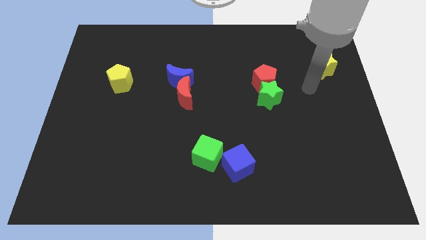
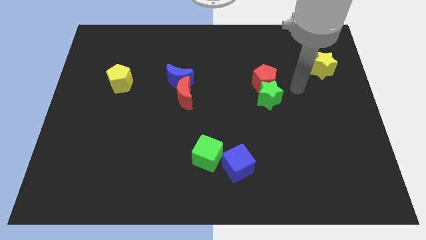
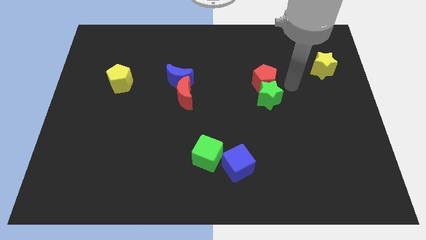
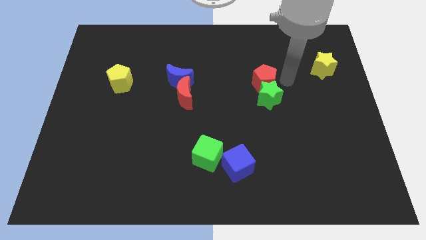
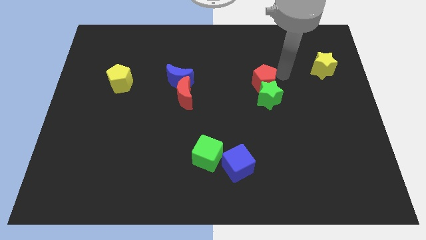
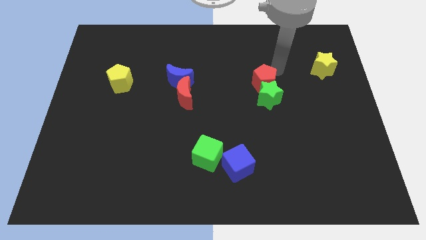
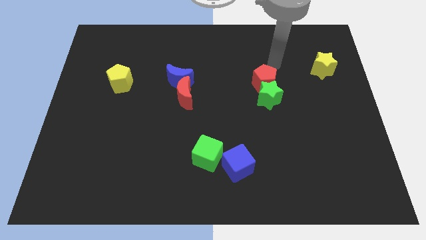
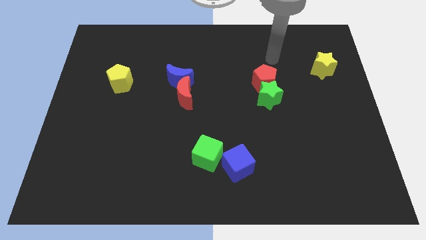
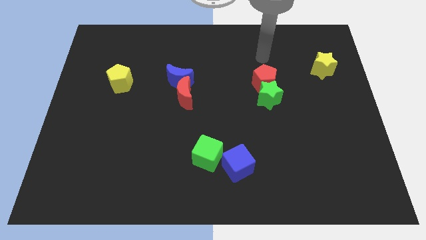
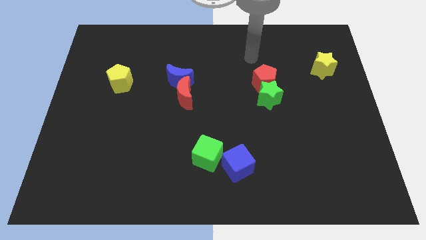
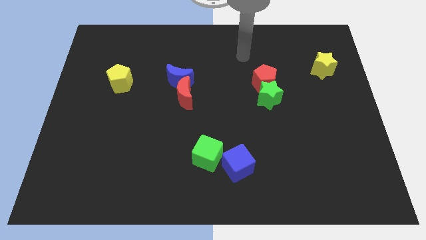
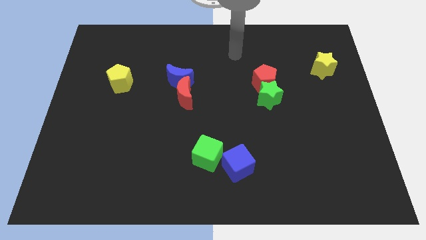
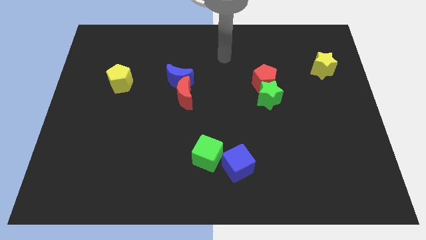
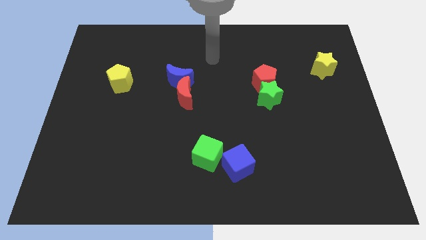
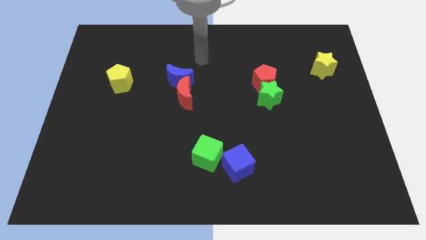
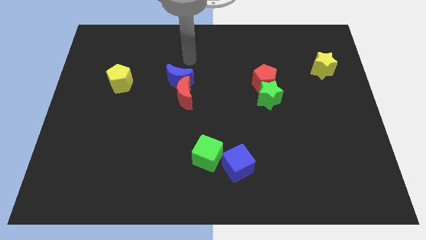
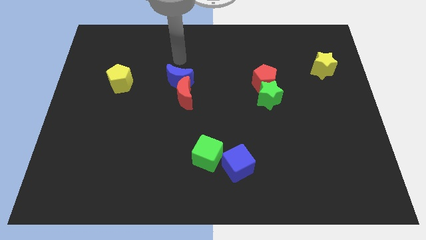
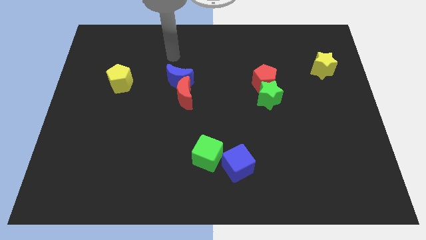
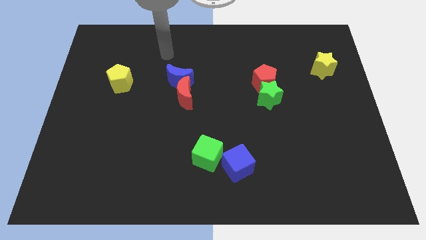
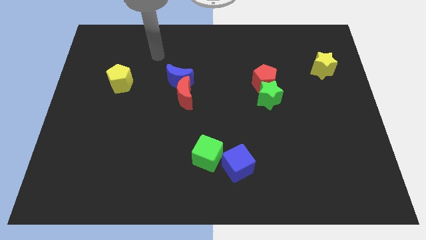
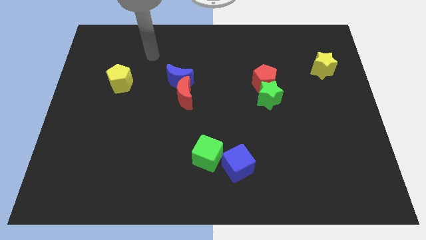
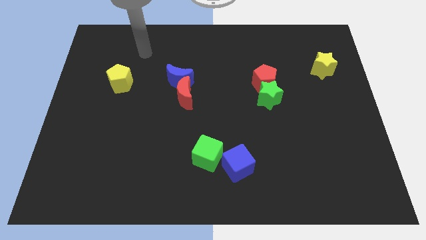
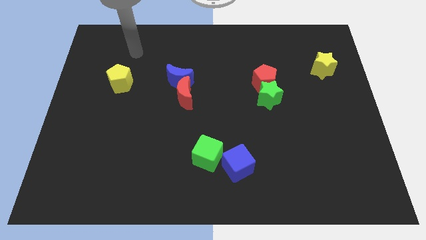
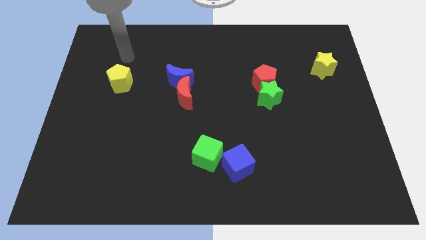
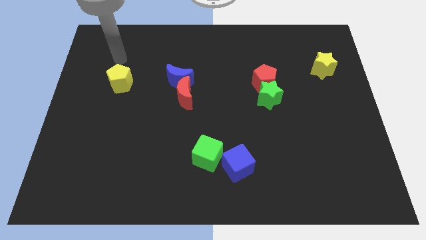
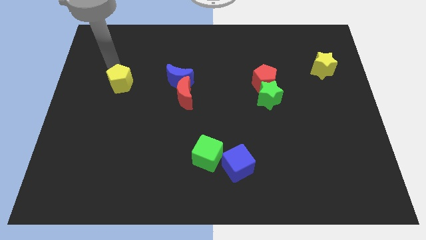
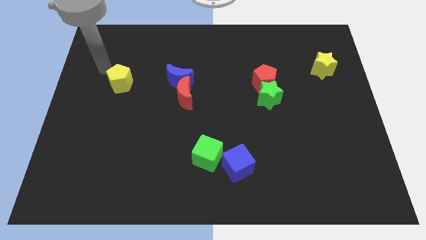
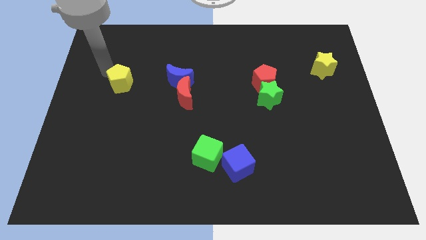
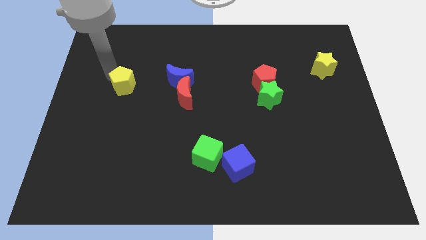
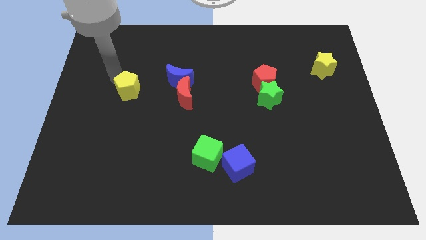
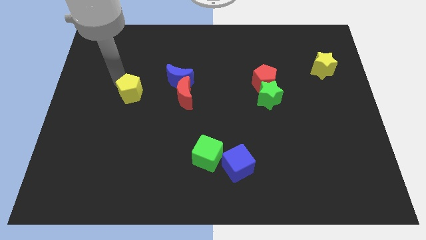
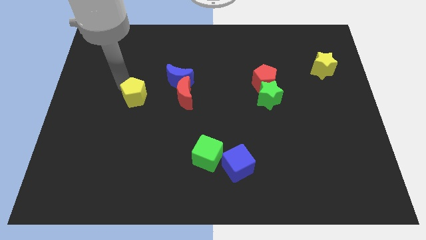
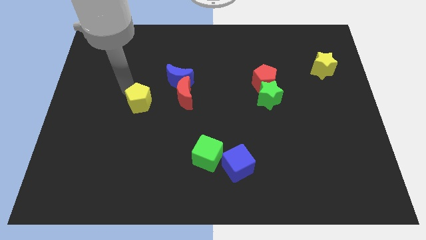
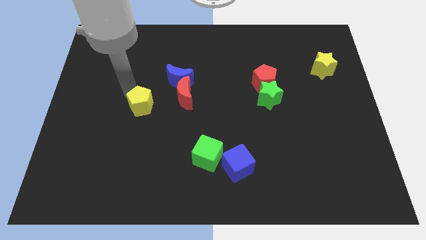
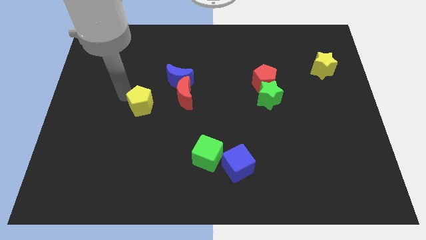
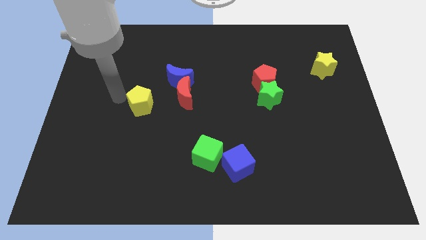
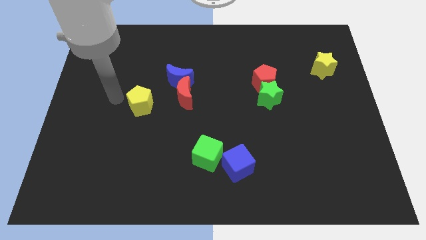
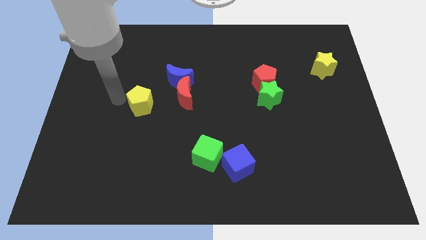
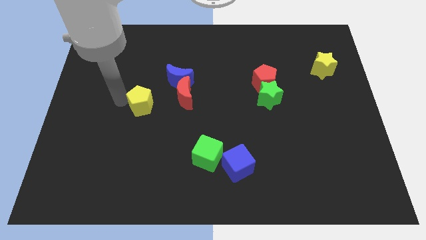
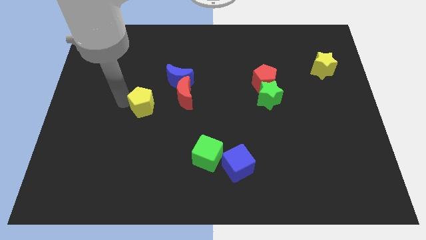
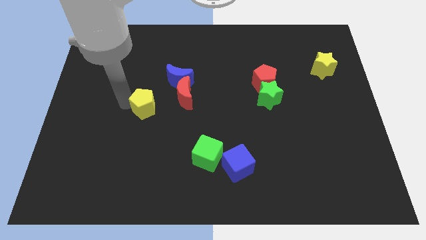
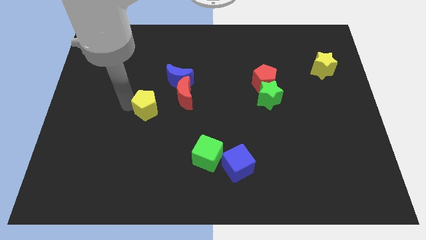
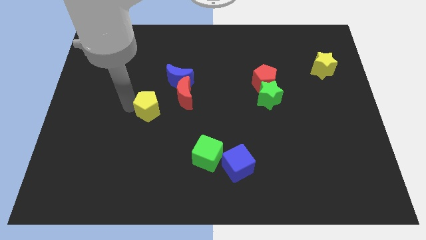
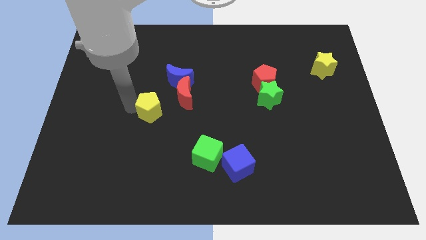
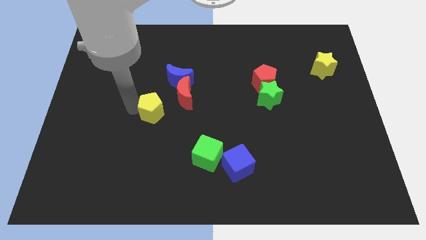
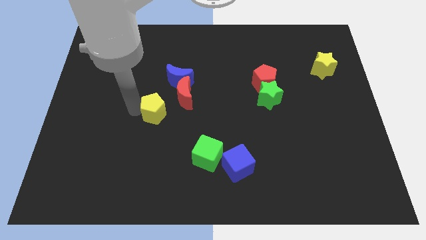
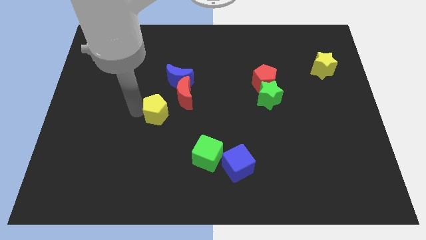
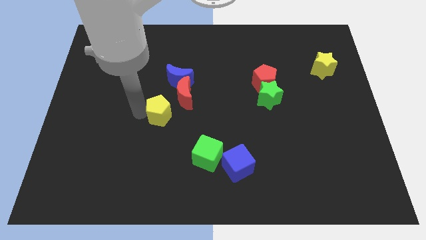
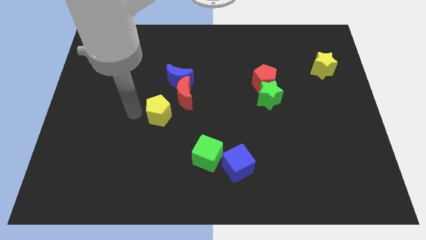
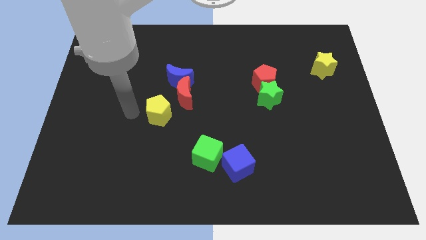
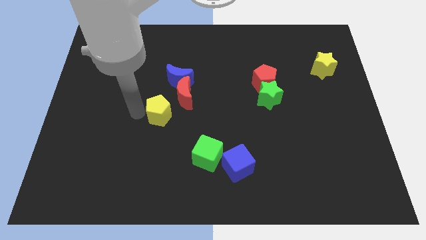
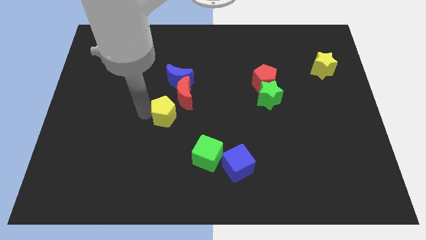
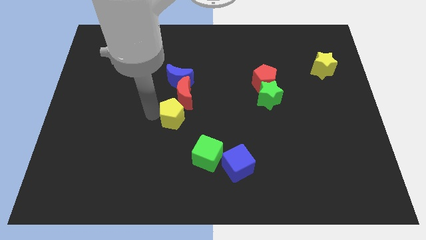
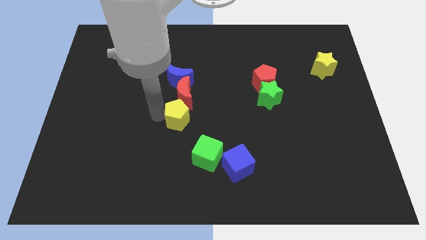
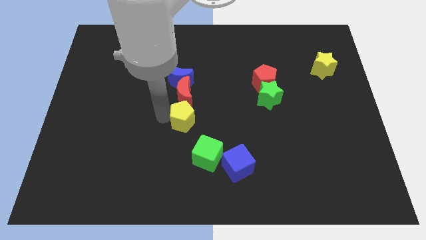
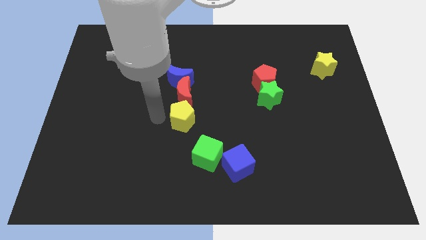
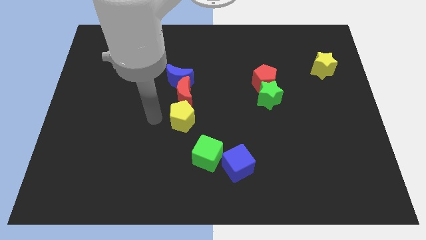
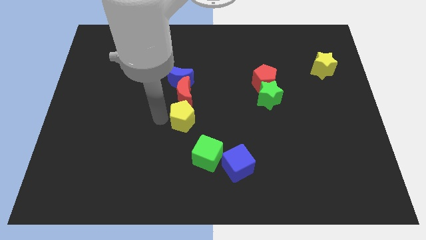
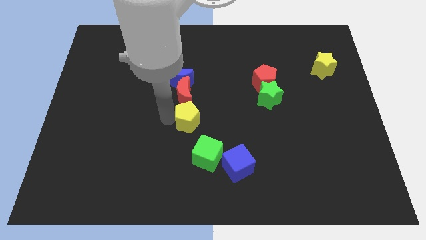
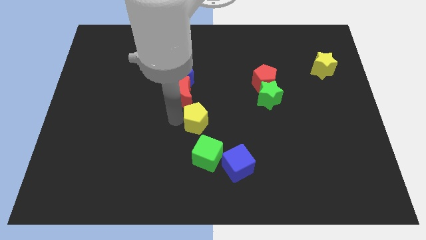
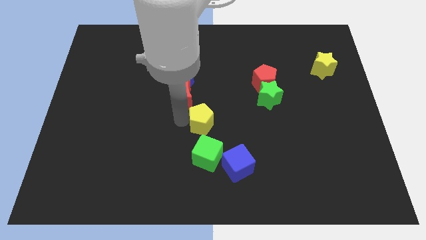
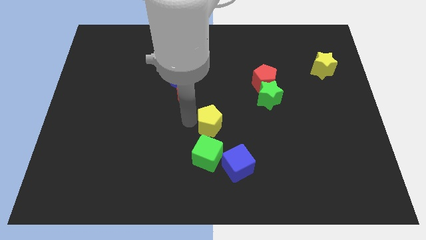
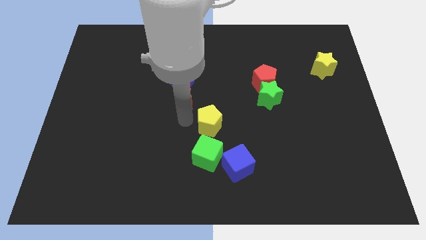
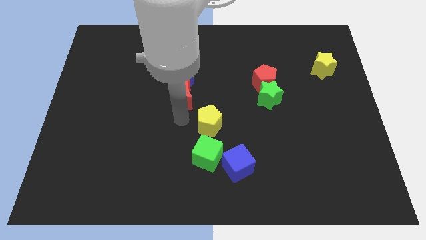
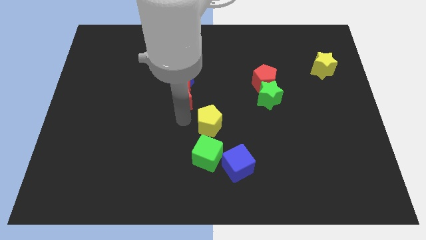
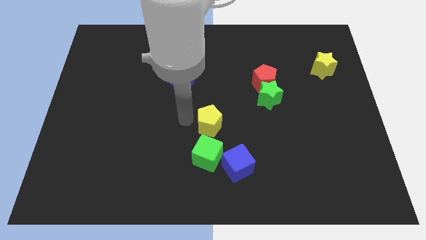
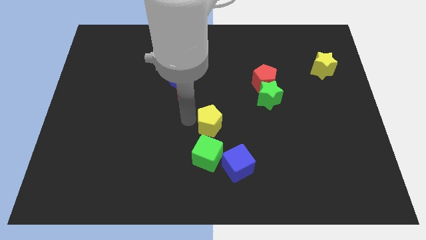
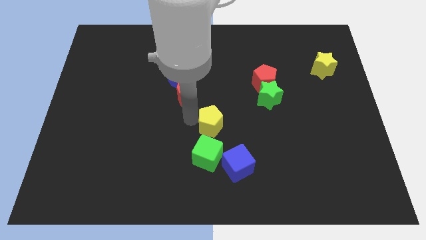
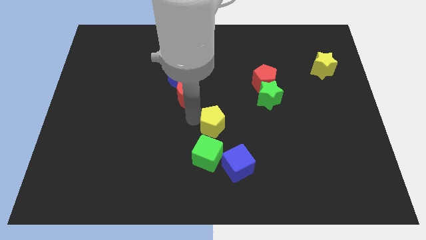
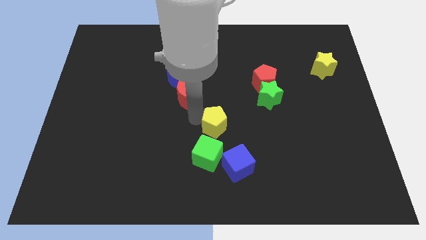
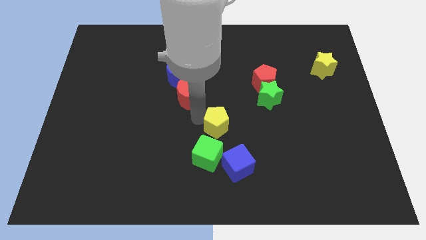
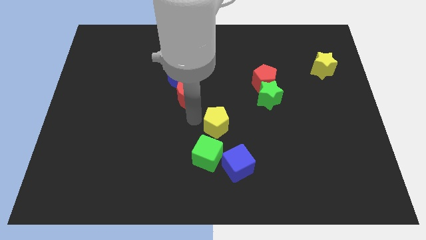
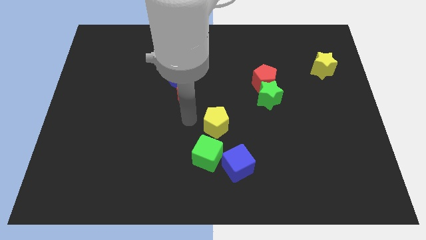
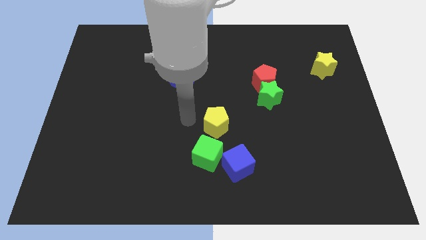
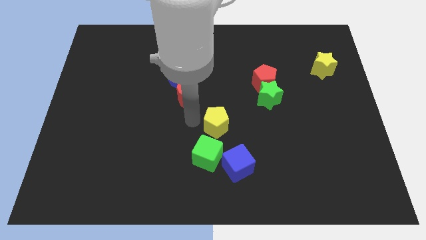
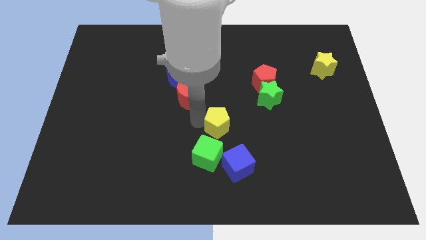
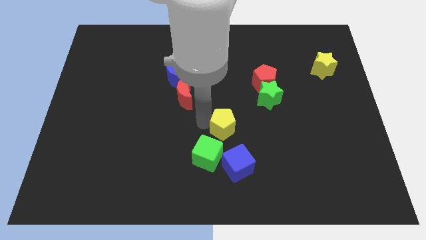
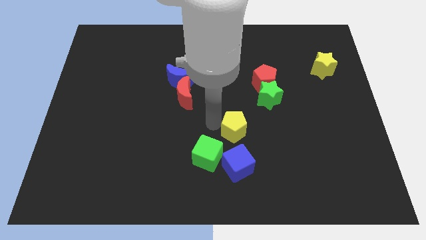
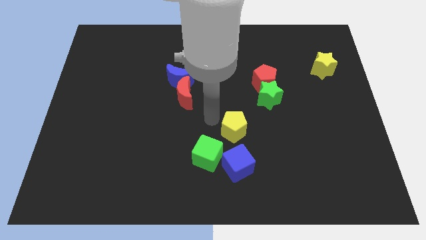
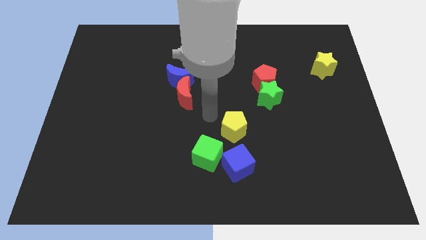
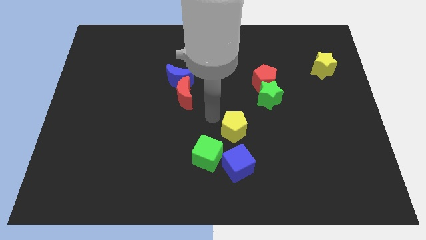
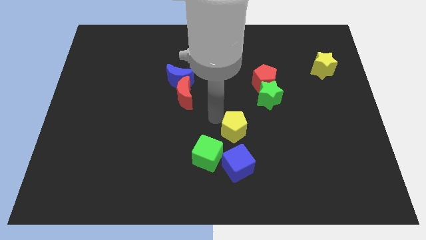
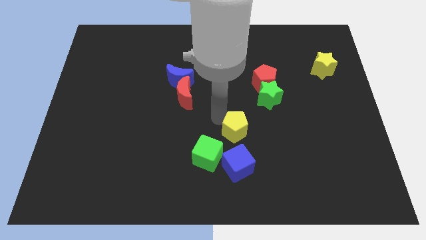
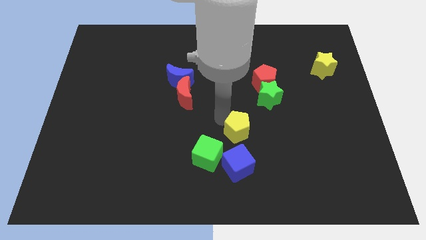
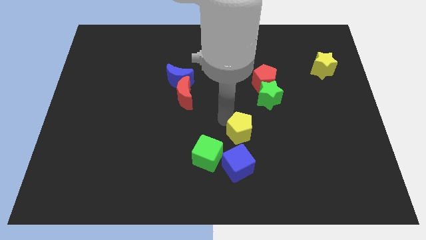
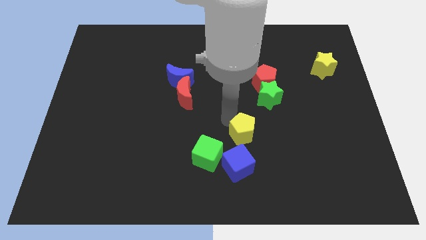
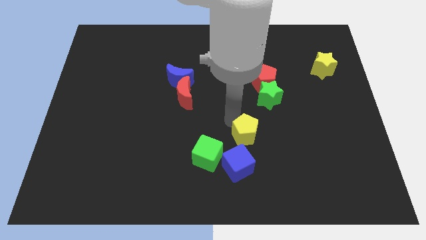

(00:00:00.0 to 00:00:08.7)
move the yellow pentagon to the top right side of the blue cube
